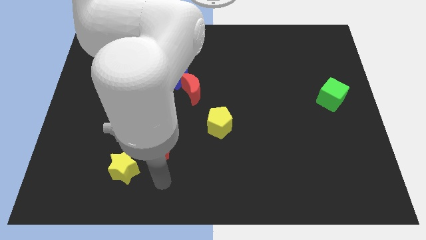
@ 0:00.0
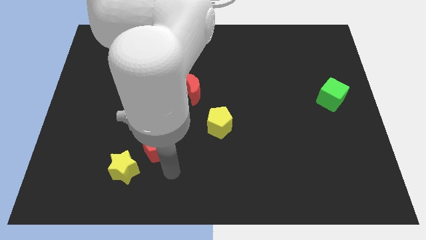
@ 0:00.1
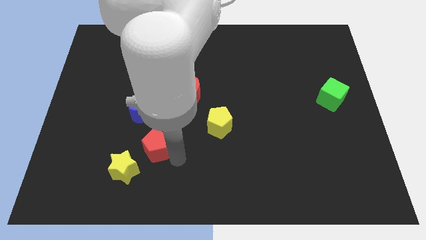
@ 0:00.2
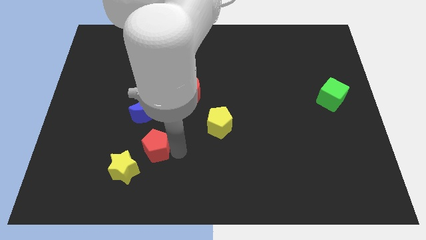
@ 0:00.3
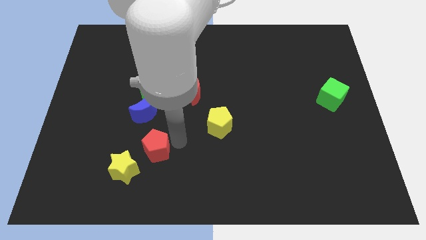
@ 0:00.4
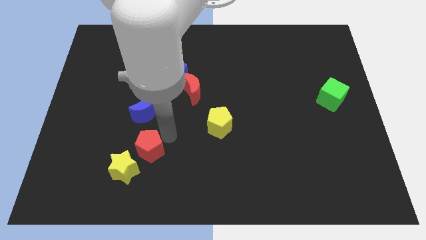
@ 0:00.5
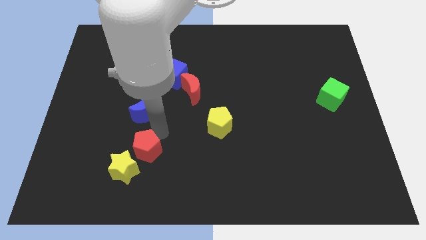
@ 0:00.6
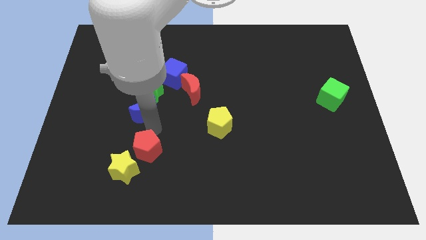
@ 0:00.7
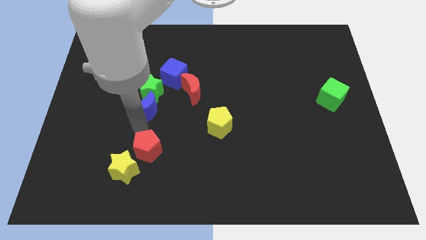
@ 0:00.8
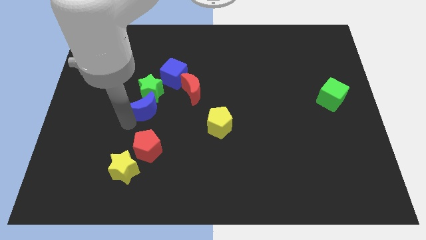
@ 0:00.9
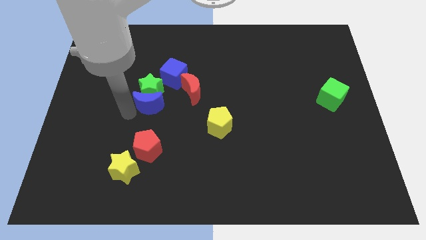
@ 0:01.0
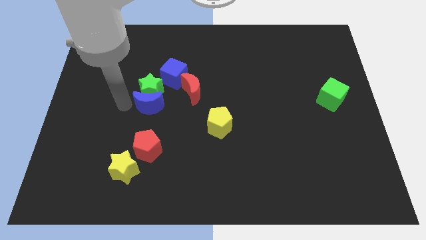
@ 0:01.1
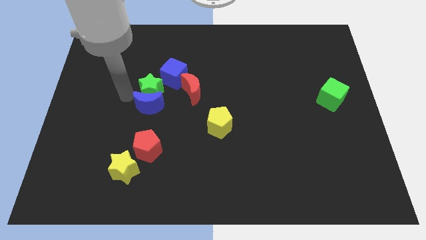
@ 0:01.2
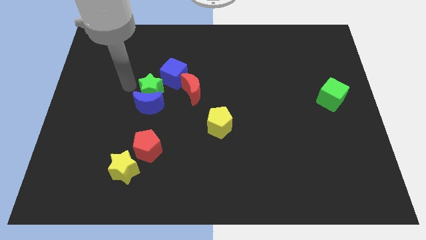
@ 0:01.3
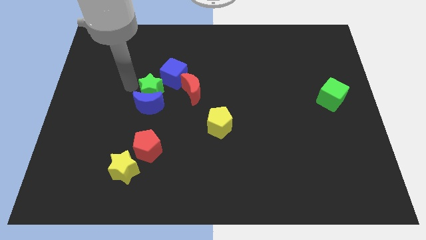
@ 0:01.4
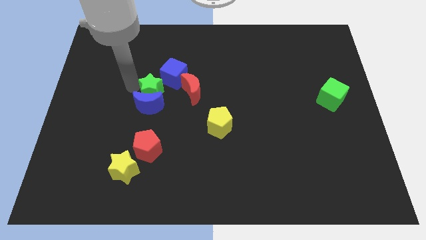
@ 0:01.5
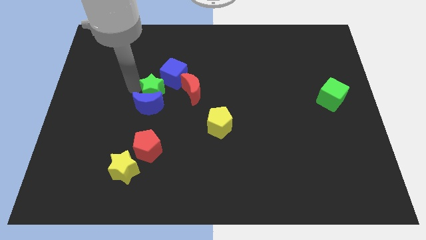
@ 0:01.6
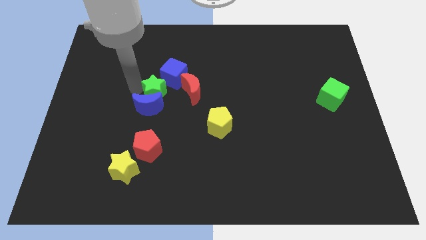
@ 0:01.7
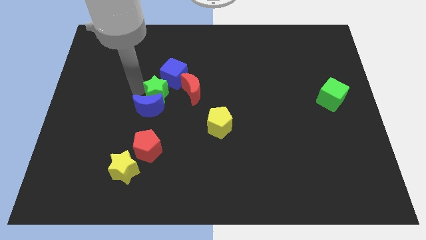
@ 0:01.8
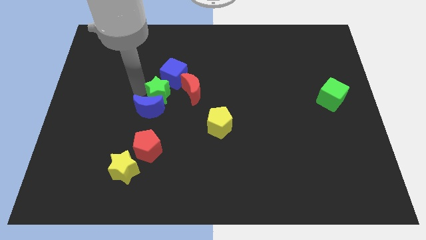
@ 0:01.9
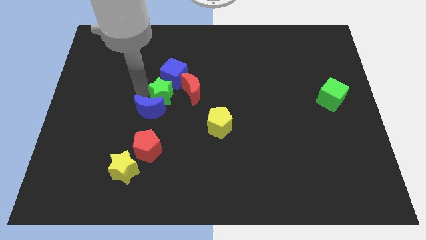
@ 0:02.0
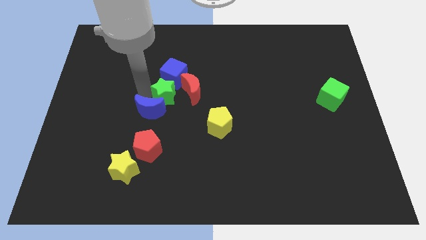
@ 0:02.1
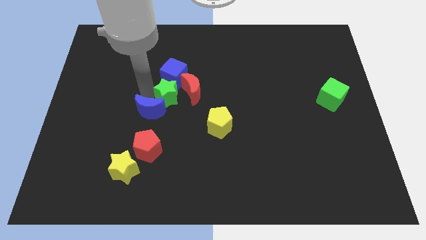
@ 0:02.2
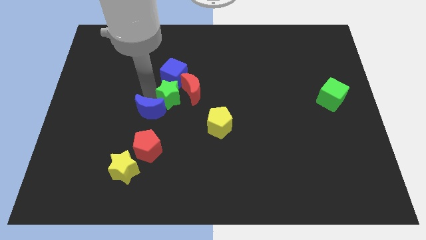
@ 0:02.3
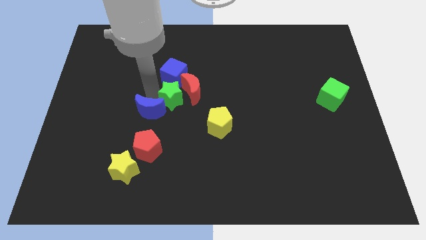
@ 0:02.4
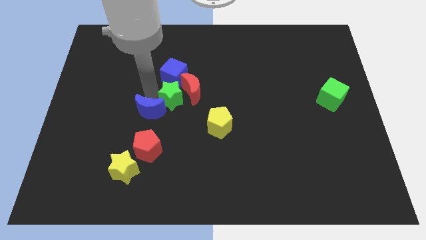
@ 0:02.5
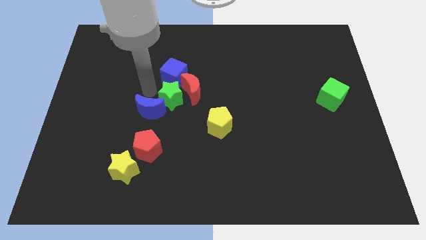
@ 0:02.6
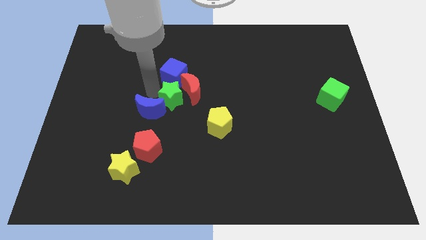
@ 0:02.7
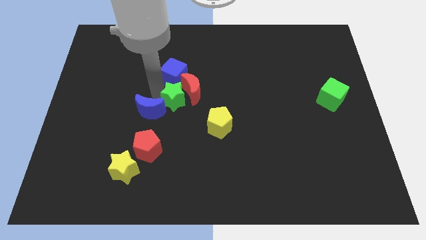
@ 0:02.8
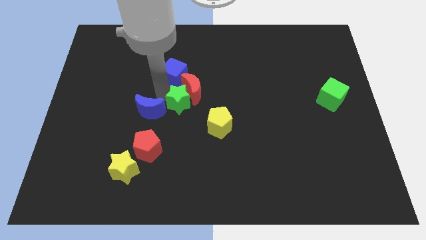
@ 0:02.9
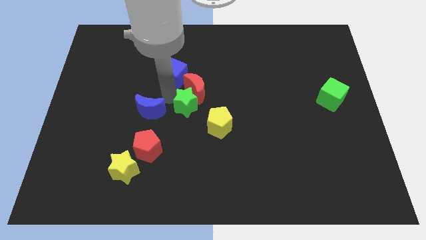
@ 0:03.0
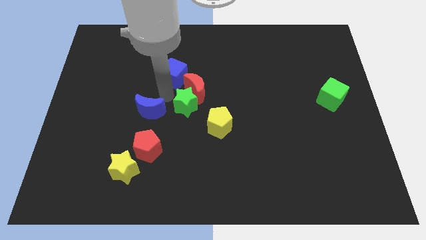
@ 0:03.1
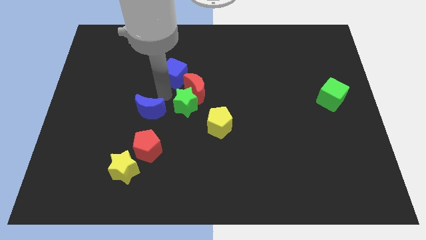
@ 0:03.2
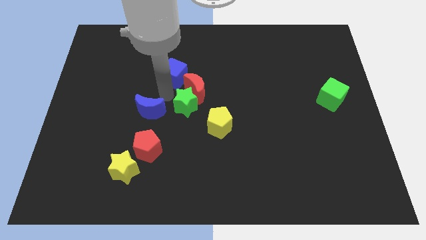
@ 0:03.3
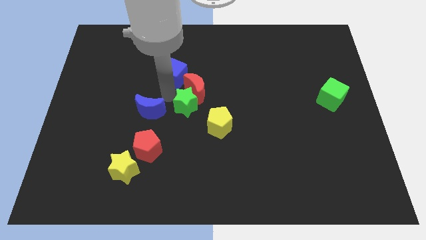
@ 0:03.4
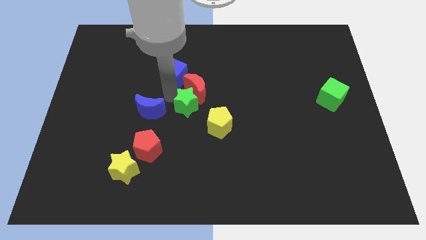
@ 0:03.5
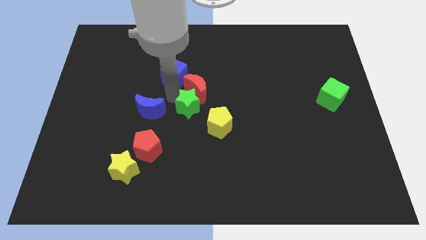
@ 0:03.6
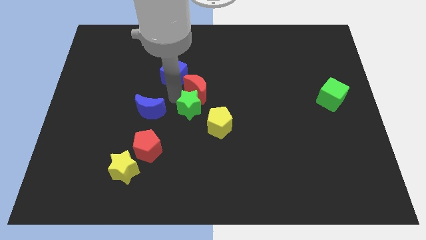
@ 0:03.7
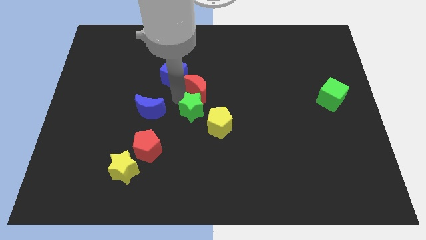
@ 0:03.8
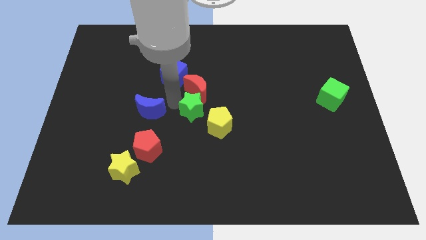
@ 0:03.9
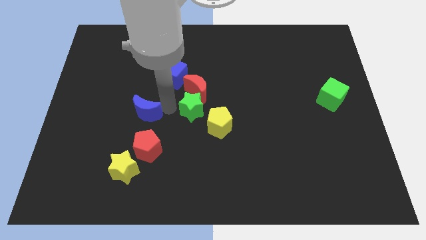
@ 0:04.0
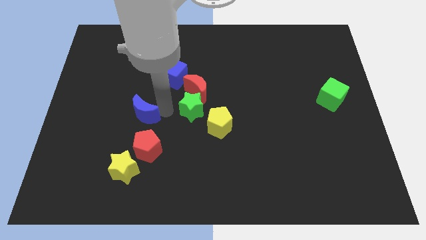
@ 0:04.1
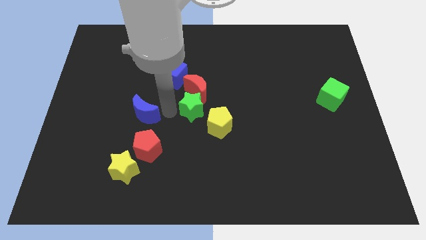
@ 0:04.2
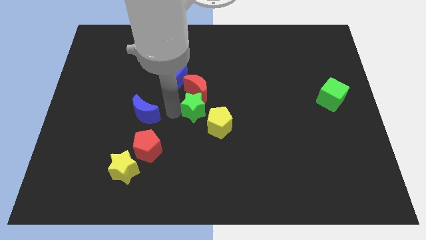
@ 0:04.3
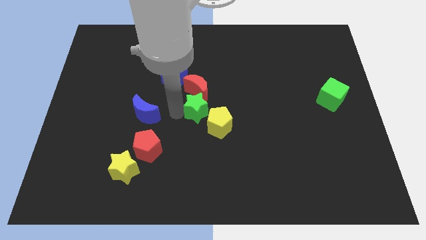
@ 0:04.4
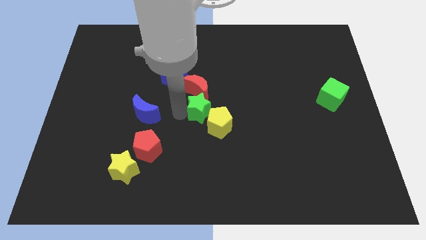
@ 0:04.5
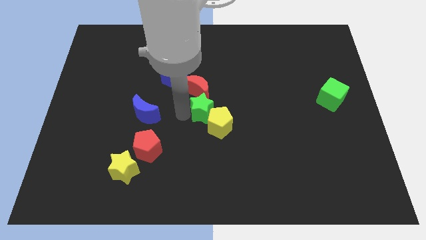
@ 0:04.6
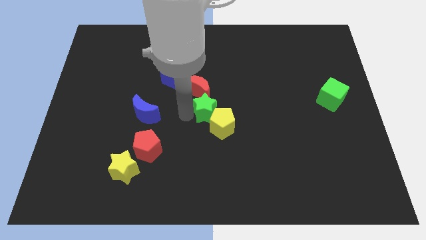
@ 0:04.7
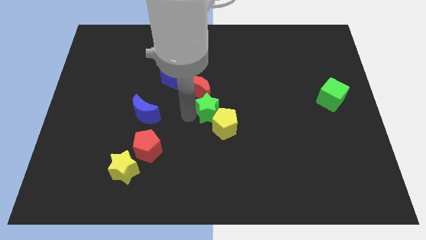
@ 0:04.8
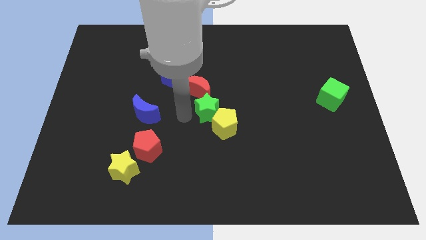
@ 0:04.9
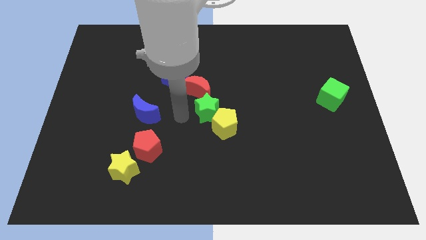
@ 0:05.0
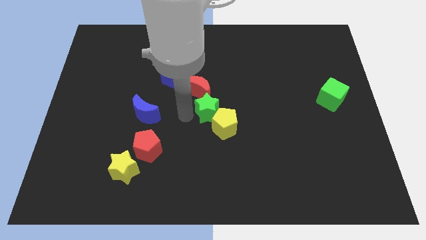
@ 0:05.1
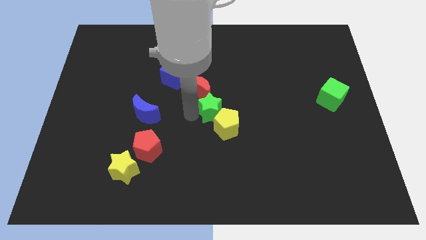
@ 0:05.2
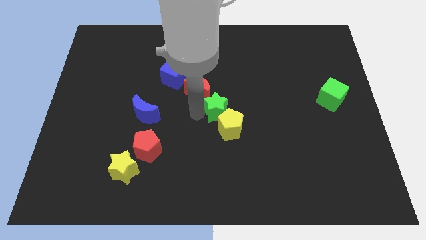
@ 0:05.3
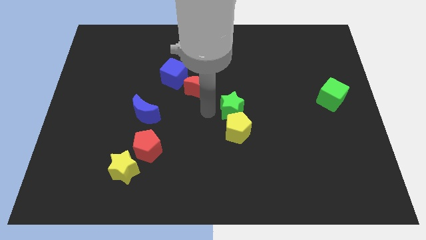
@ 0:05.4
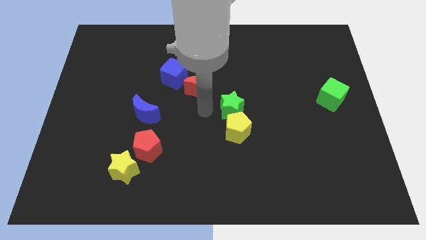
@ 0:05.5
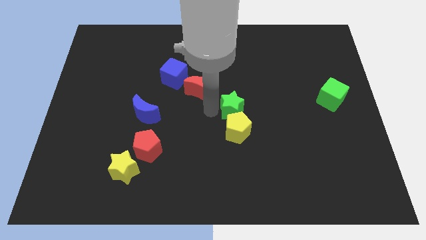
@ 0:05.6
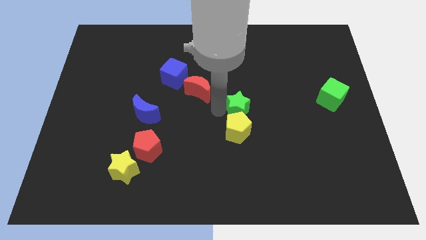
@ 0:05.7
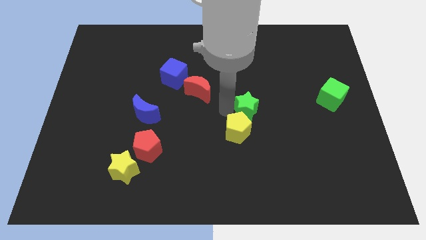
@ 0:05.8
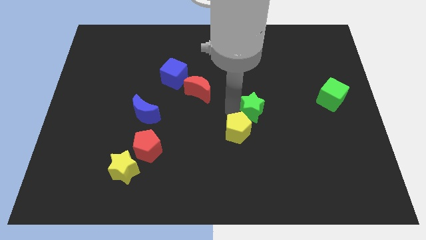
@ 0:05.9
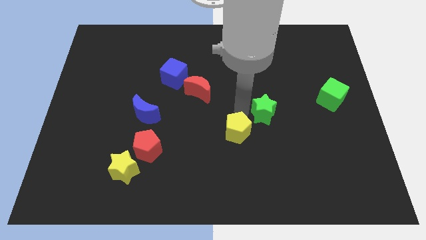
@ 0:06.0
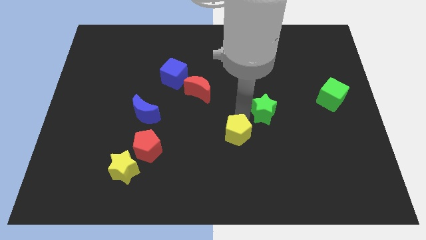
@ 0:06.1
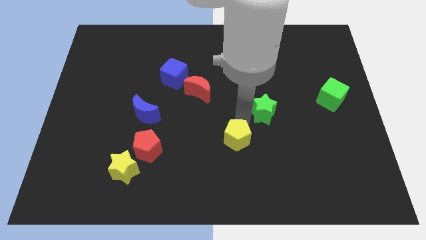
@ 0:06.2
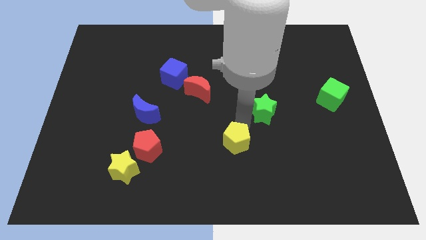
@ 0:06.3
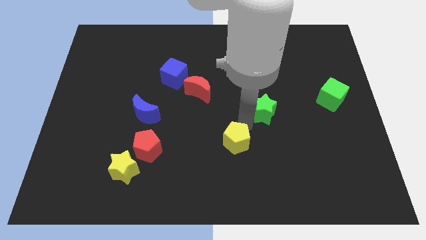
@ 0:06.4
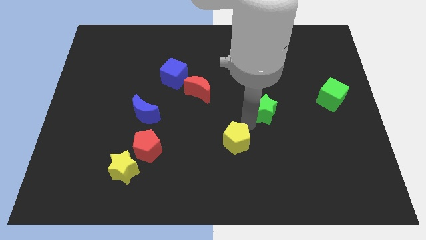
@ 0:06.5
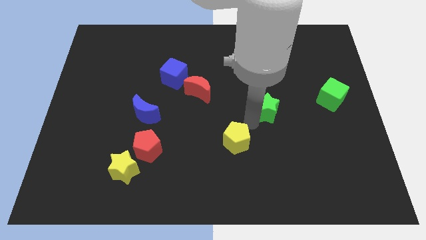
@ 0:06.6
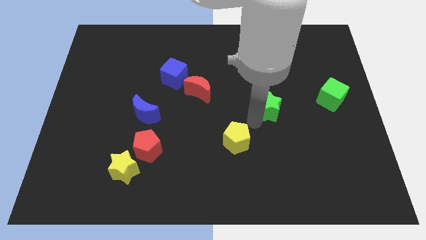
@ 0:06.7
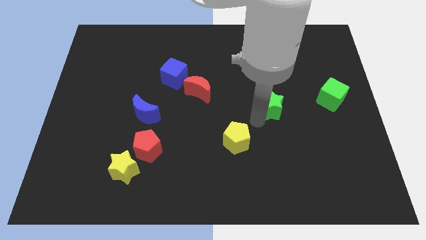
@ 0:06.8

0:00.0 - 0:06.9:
slide the green star left of the green cube

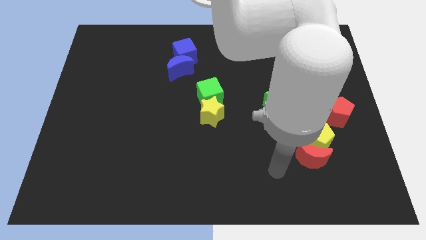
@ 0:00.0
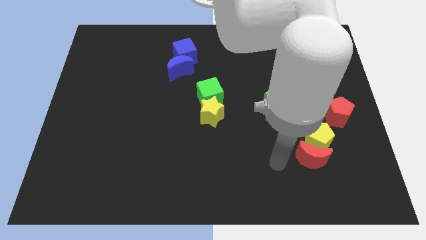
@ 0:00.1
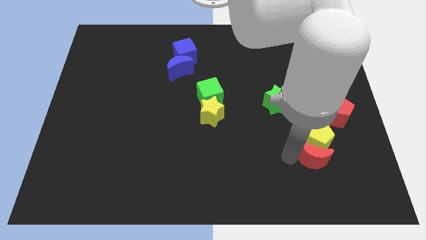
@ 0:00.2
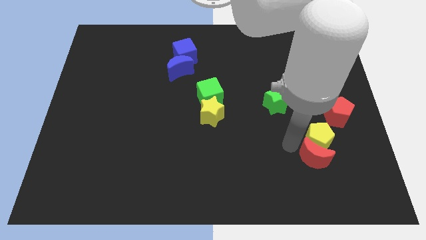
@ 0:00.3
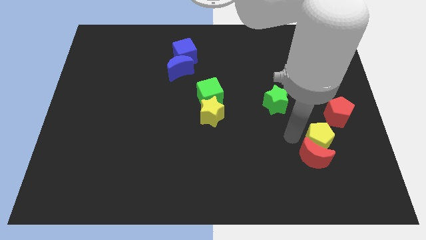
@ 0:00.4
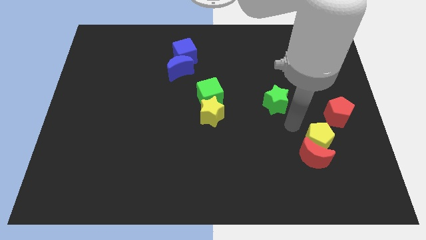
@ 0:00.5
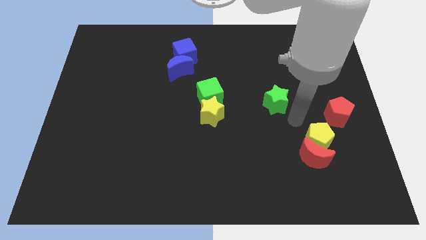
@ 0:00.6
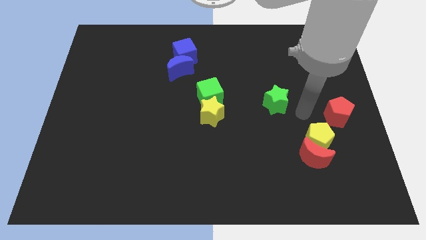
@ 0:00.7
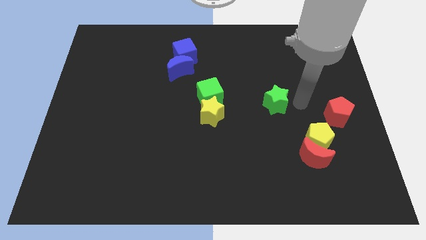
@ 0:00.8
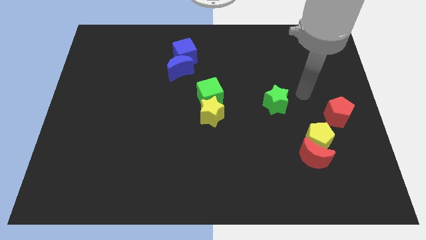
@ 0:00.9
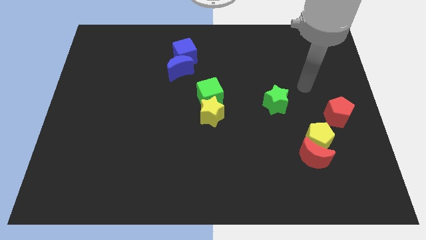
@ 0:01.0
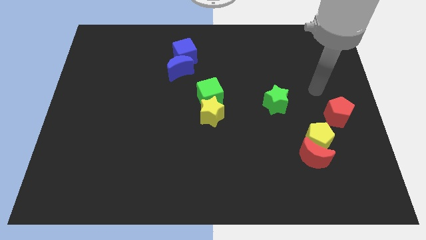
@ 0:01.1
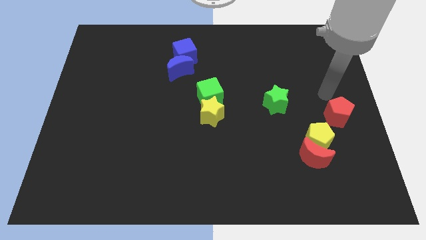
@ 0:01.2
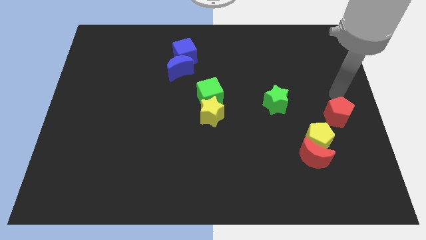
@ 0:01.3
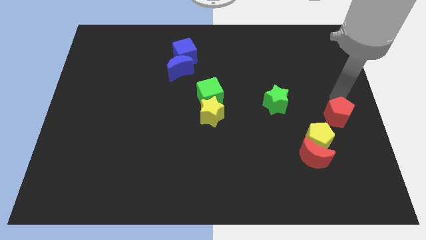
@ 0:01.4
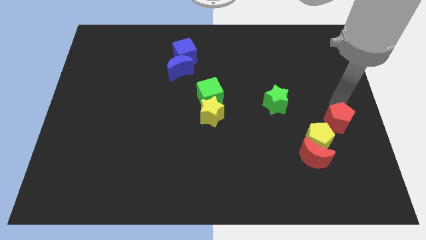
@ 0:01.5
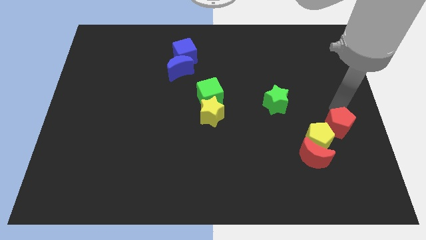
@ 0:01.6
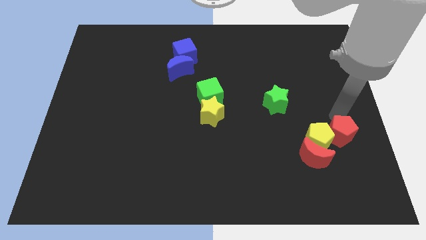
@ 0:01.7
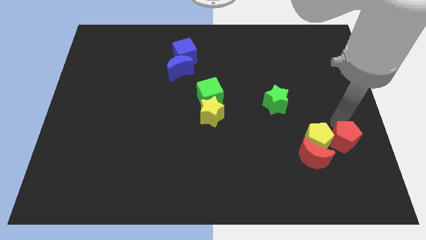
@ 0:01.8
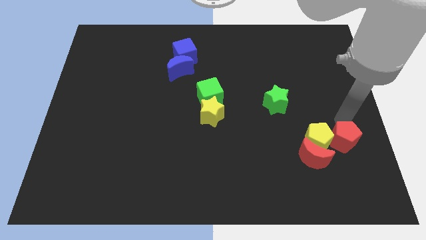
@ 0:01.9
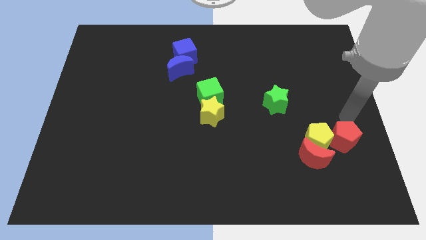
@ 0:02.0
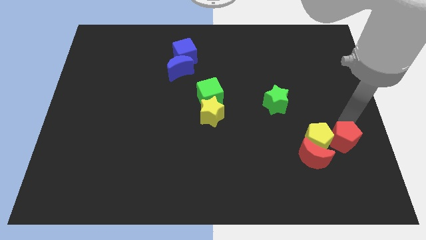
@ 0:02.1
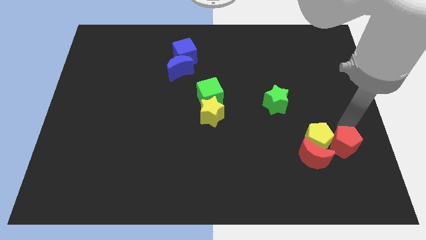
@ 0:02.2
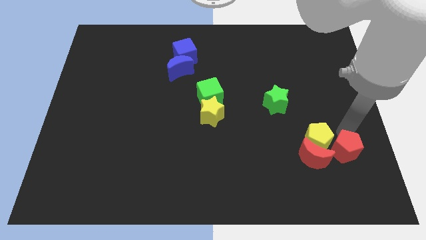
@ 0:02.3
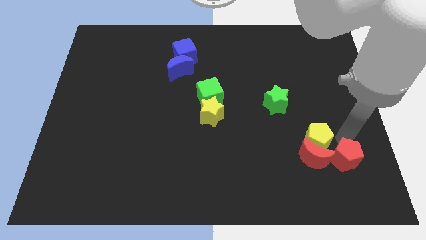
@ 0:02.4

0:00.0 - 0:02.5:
slide the red pentagon to the bottom right of the red moon
